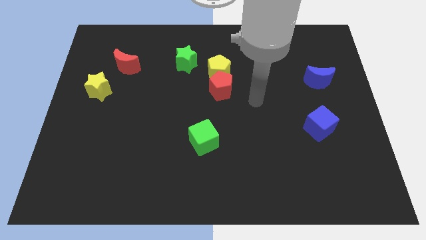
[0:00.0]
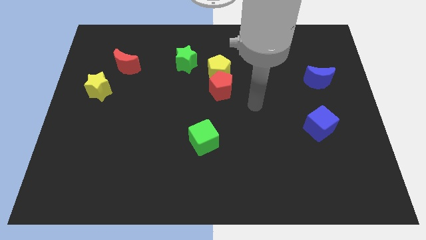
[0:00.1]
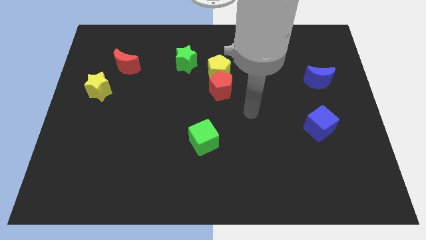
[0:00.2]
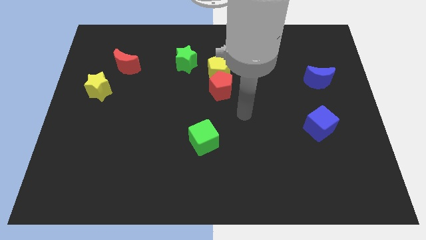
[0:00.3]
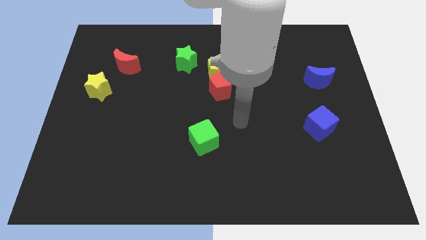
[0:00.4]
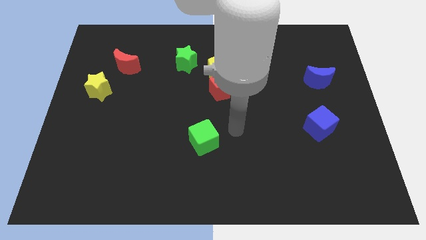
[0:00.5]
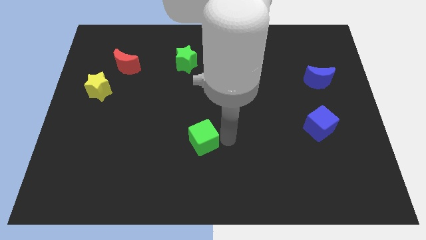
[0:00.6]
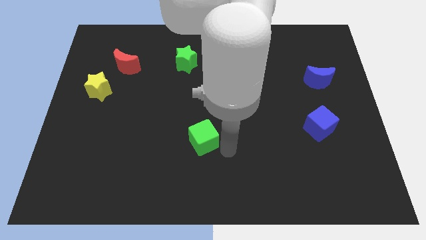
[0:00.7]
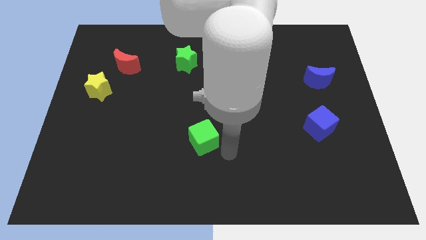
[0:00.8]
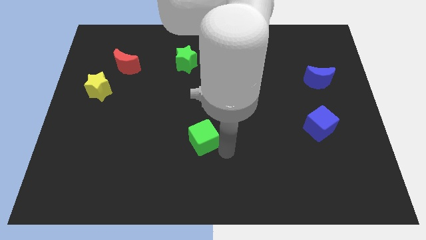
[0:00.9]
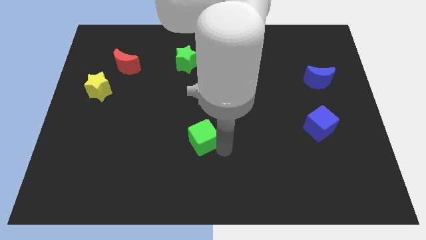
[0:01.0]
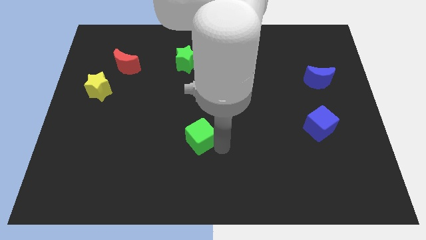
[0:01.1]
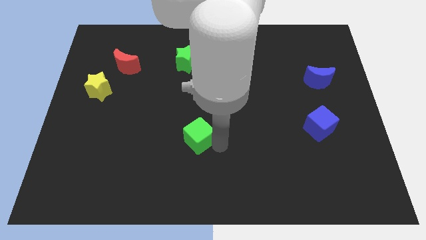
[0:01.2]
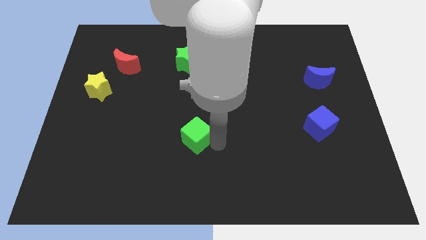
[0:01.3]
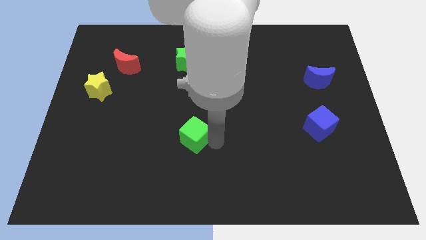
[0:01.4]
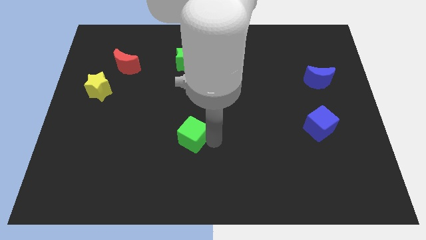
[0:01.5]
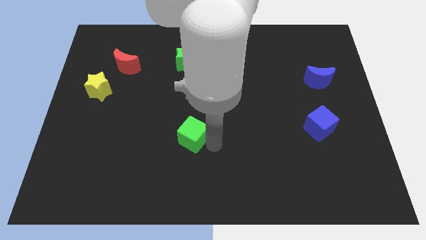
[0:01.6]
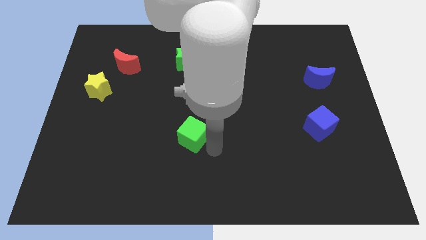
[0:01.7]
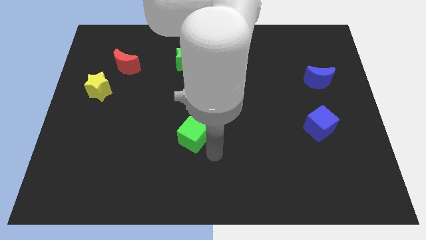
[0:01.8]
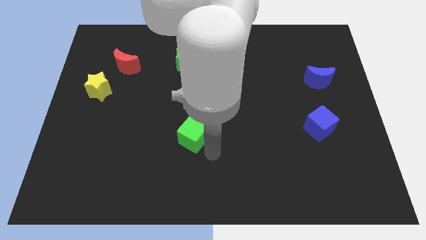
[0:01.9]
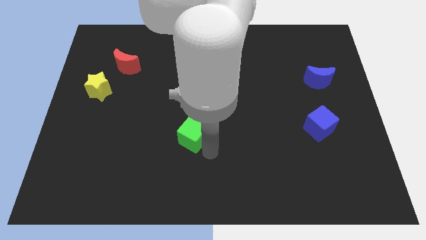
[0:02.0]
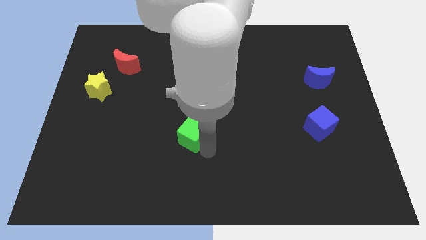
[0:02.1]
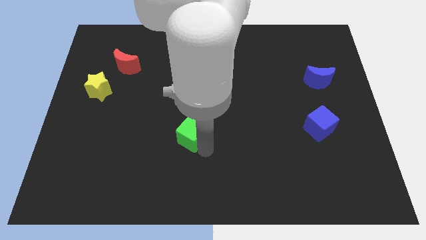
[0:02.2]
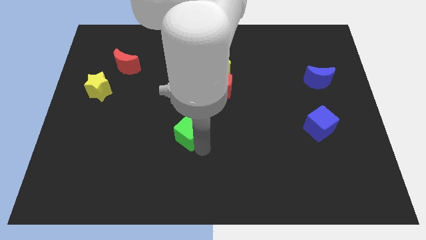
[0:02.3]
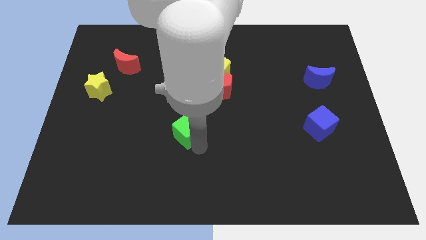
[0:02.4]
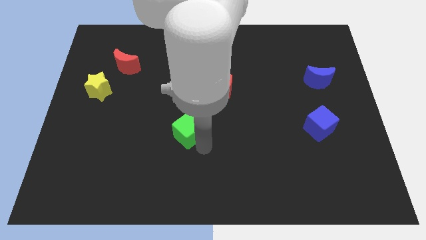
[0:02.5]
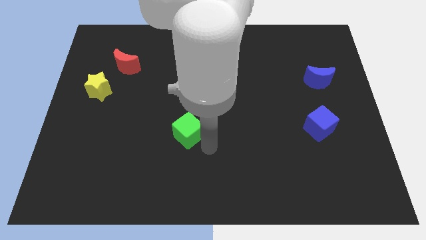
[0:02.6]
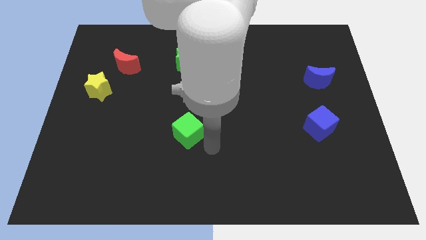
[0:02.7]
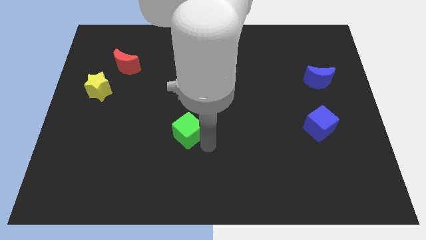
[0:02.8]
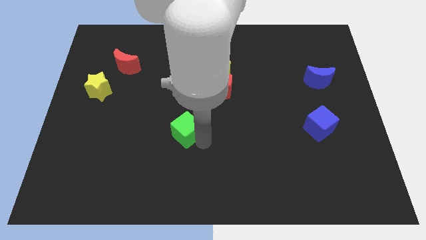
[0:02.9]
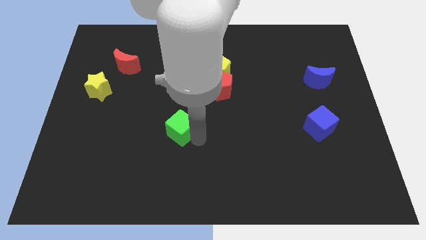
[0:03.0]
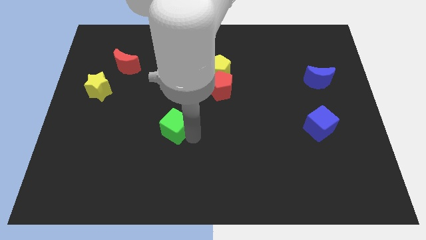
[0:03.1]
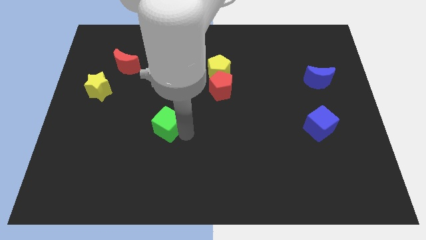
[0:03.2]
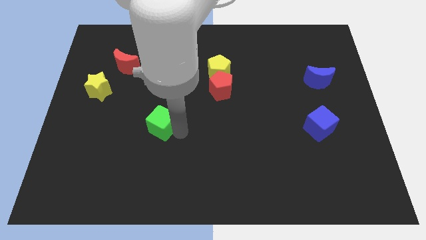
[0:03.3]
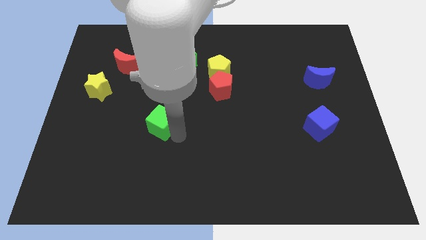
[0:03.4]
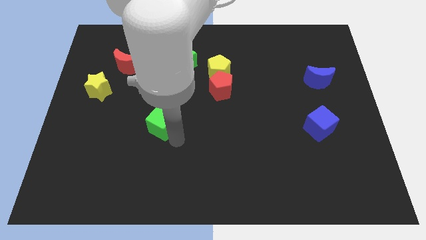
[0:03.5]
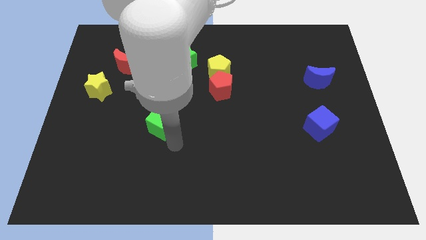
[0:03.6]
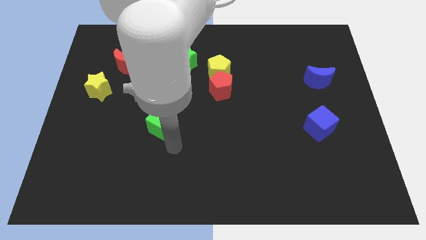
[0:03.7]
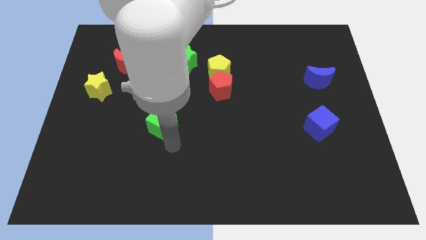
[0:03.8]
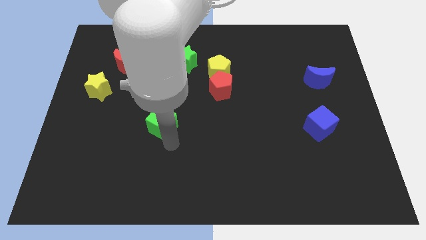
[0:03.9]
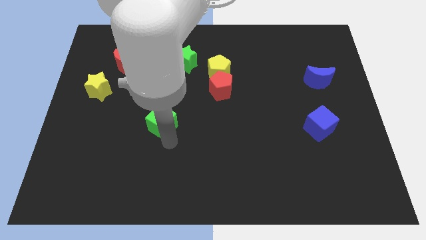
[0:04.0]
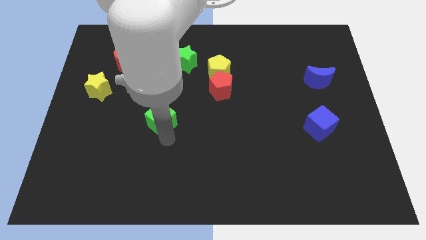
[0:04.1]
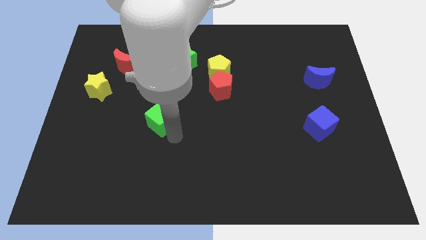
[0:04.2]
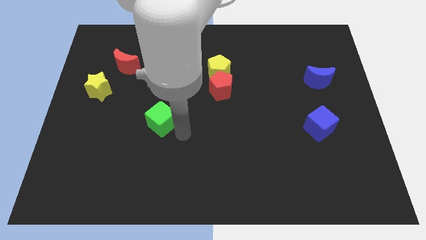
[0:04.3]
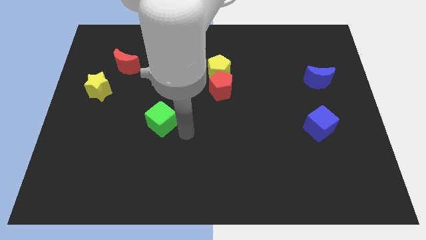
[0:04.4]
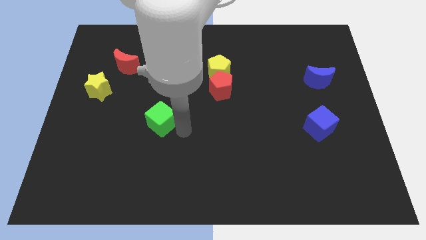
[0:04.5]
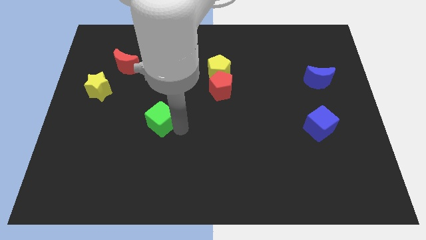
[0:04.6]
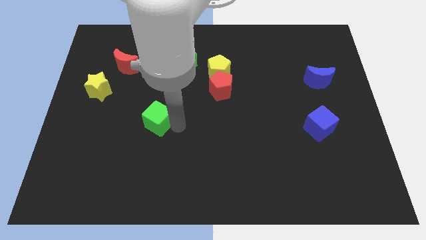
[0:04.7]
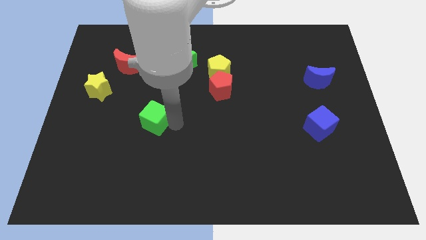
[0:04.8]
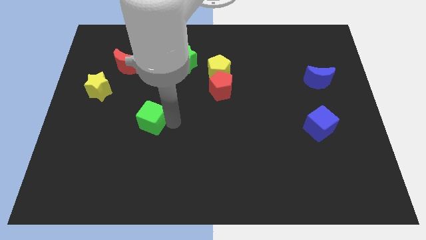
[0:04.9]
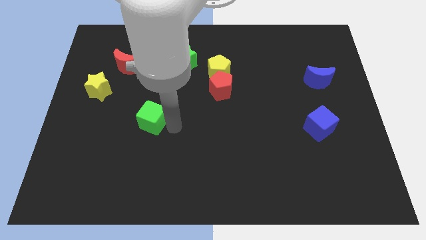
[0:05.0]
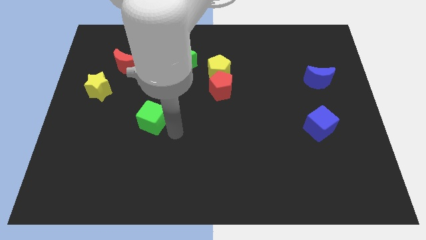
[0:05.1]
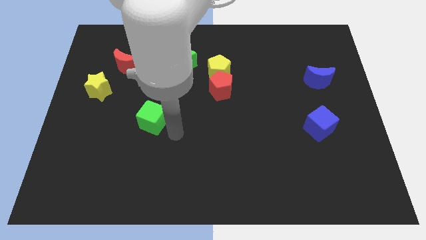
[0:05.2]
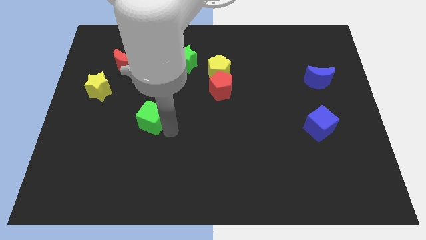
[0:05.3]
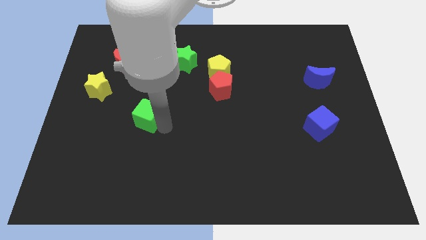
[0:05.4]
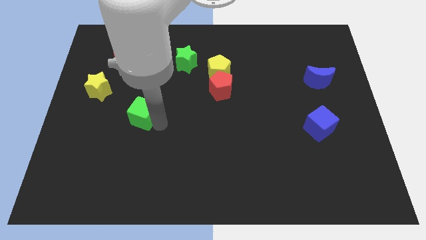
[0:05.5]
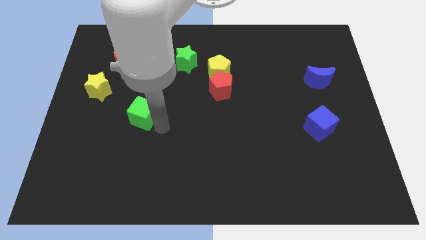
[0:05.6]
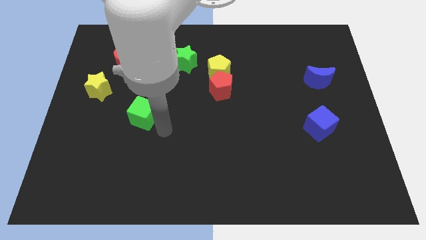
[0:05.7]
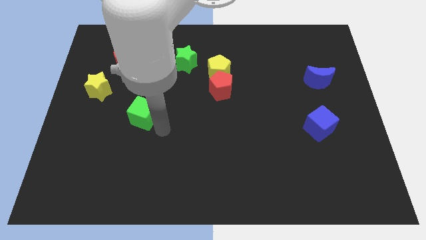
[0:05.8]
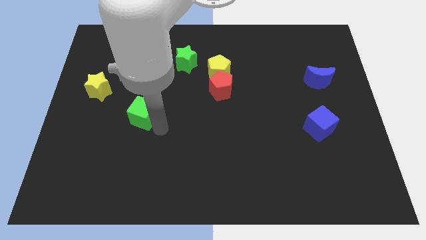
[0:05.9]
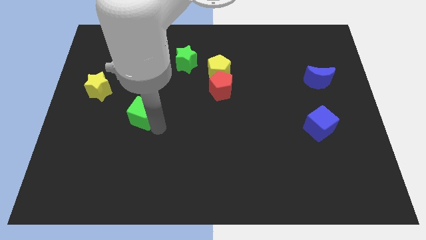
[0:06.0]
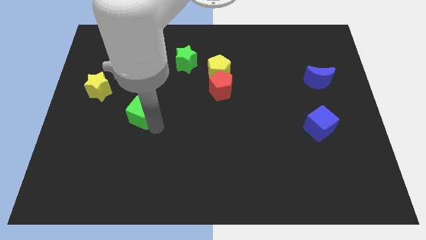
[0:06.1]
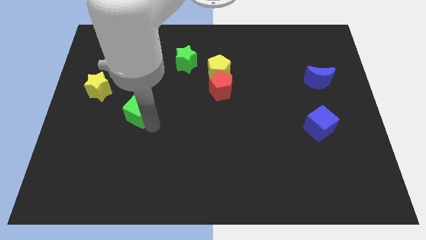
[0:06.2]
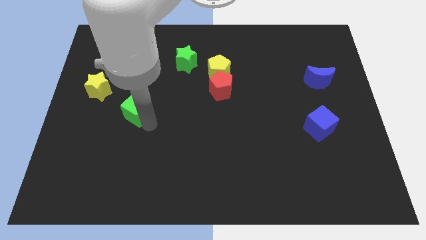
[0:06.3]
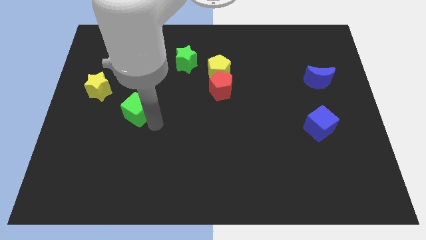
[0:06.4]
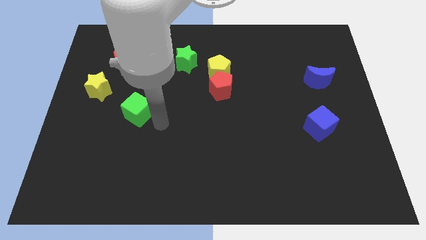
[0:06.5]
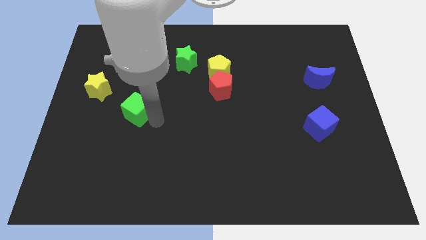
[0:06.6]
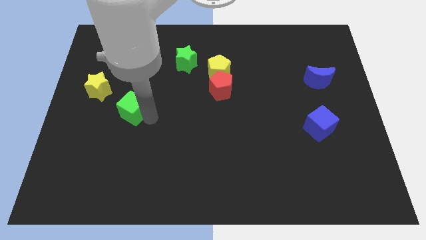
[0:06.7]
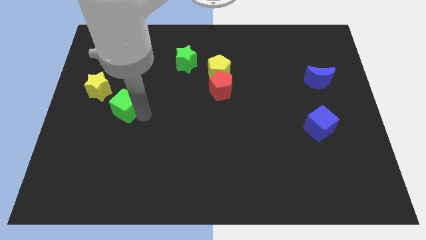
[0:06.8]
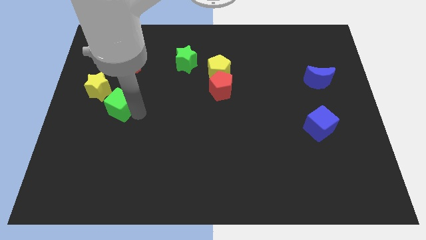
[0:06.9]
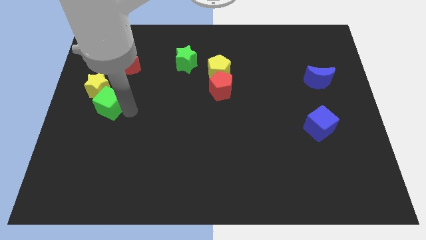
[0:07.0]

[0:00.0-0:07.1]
move the green cube towards the yellow star
